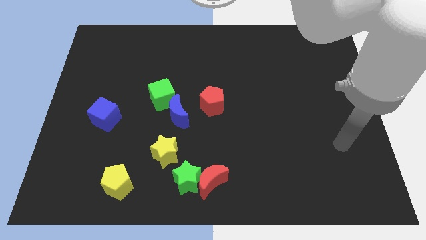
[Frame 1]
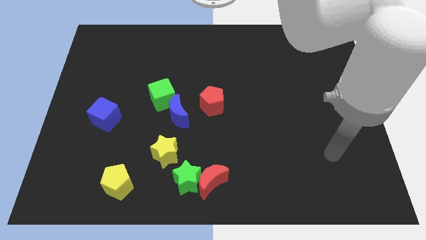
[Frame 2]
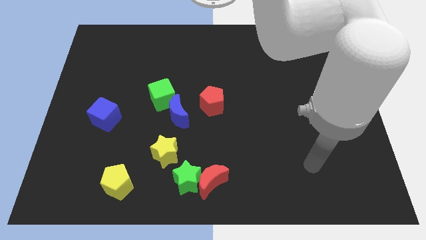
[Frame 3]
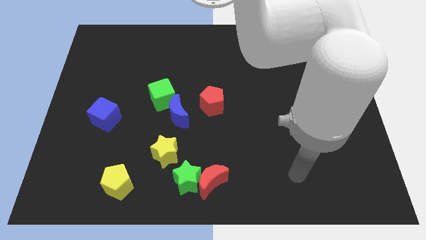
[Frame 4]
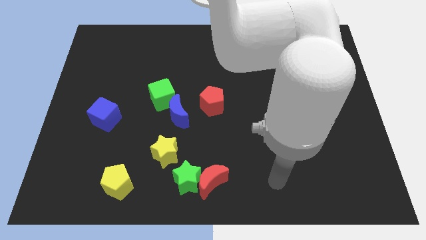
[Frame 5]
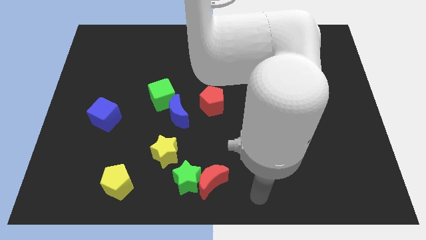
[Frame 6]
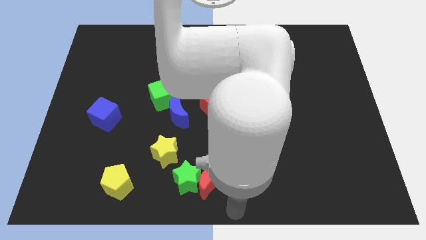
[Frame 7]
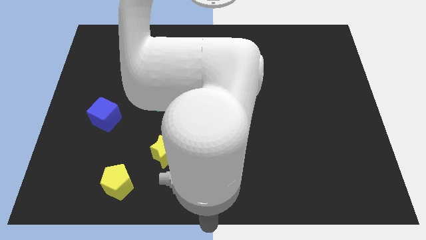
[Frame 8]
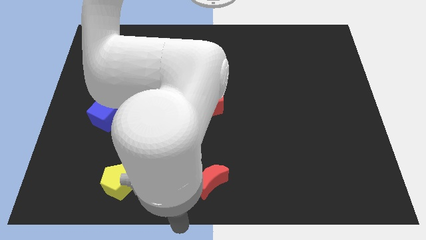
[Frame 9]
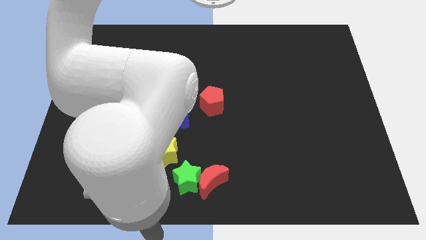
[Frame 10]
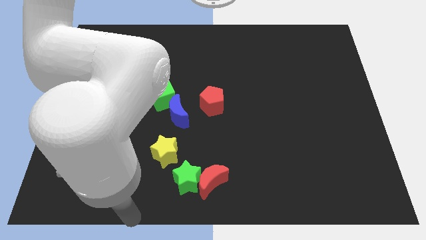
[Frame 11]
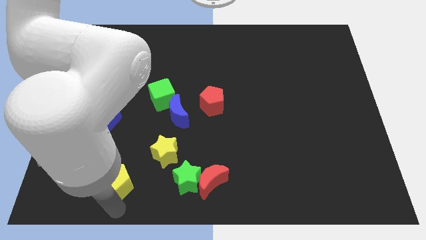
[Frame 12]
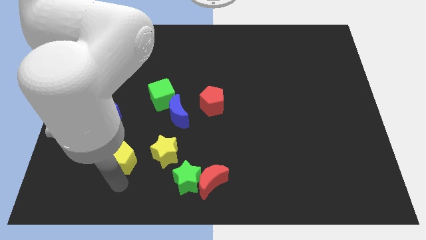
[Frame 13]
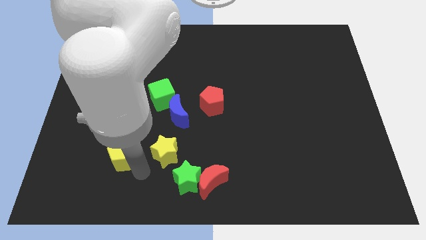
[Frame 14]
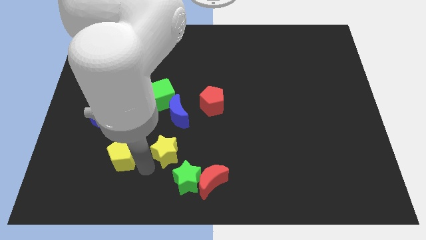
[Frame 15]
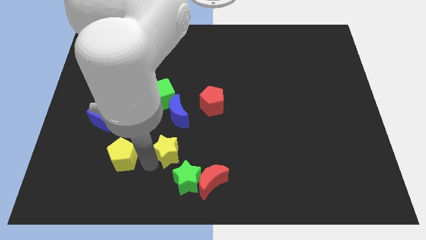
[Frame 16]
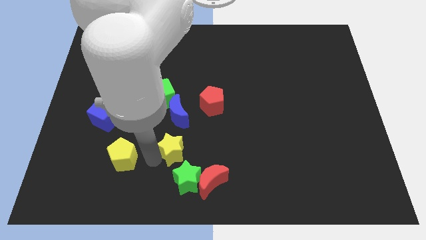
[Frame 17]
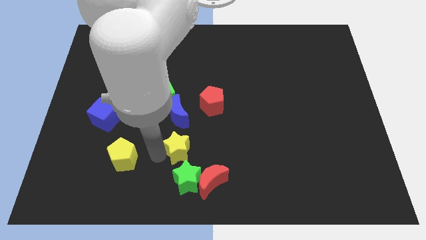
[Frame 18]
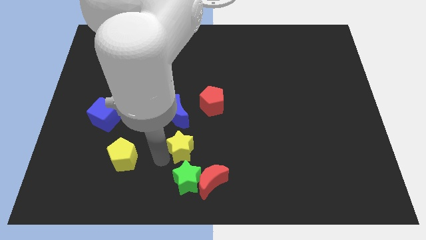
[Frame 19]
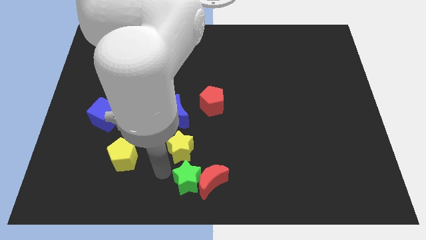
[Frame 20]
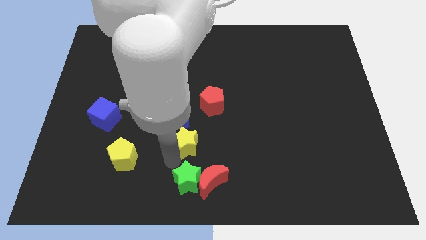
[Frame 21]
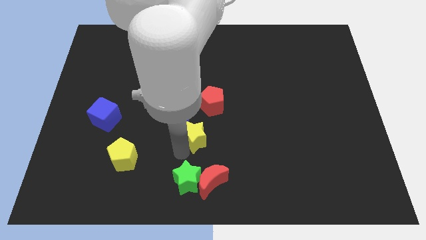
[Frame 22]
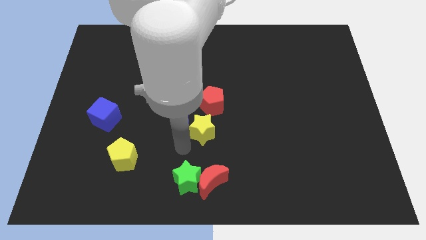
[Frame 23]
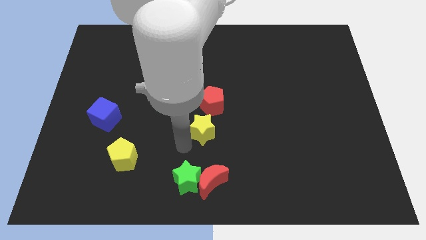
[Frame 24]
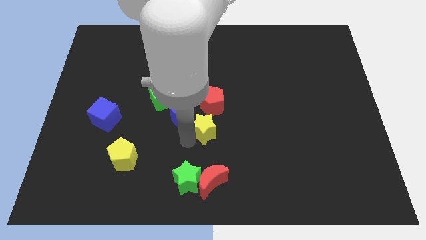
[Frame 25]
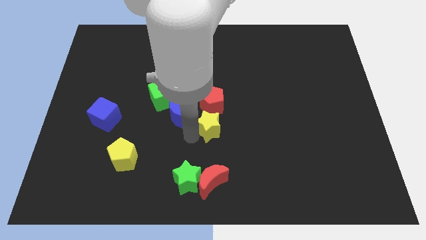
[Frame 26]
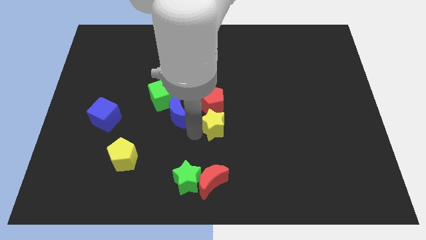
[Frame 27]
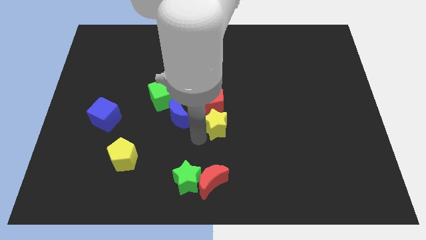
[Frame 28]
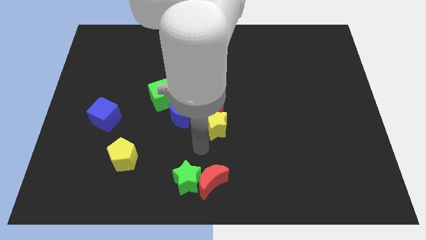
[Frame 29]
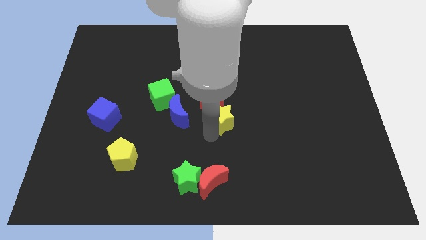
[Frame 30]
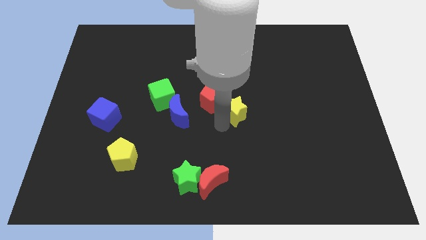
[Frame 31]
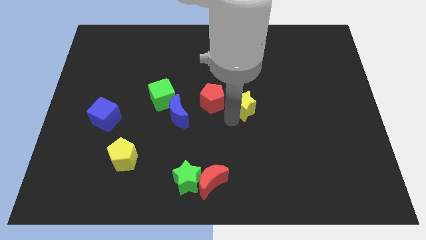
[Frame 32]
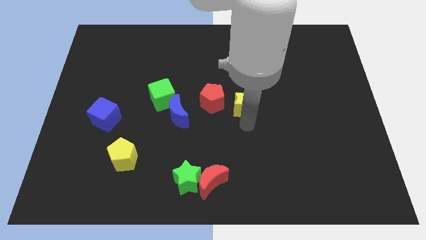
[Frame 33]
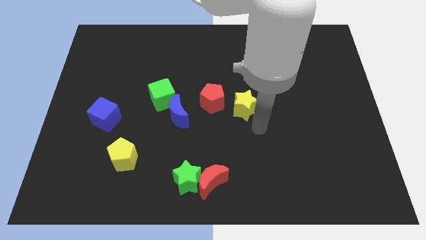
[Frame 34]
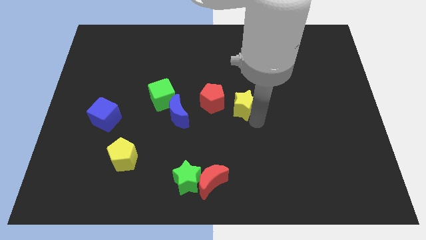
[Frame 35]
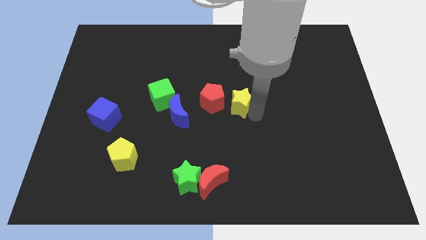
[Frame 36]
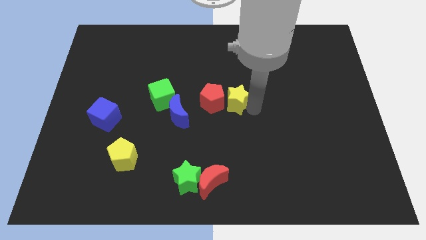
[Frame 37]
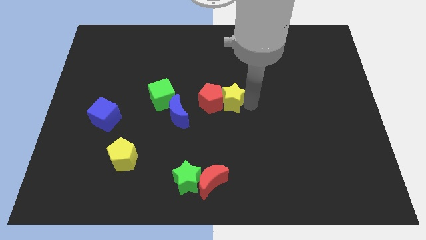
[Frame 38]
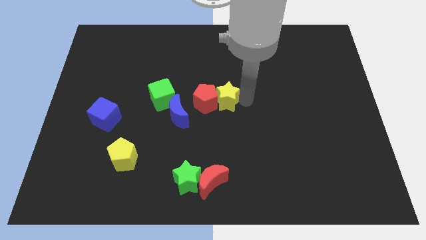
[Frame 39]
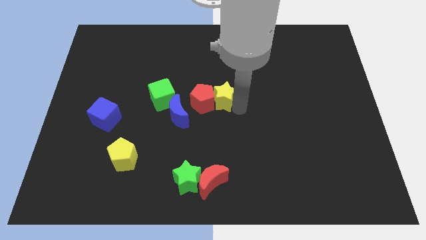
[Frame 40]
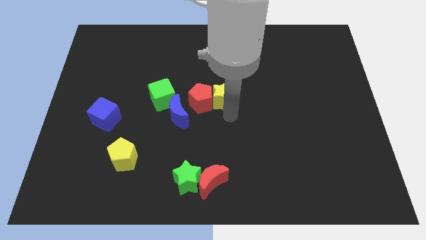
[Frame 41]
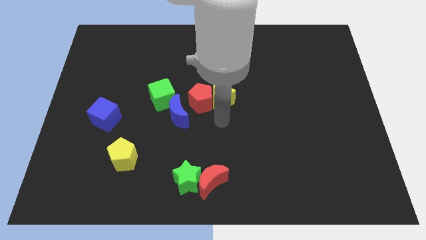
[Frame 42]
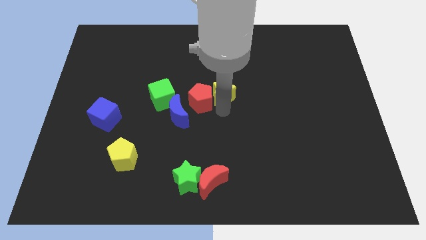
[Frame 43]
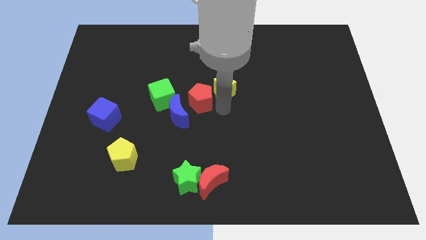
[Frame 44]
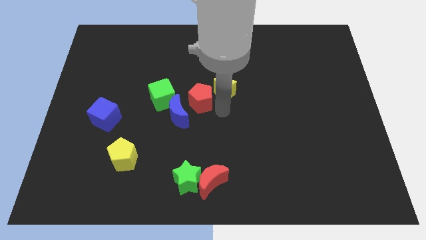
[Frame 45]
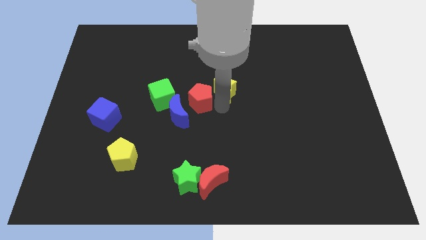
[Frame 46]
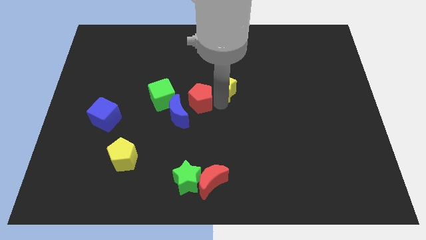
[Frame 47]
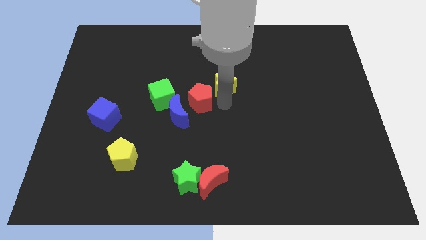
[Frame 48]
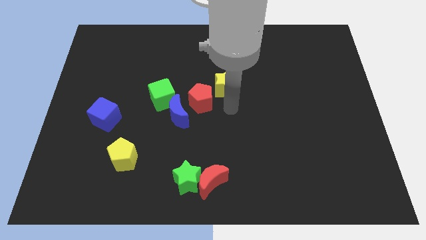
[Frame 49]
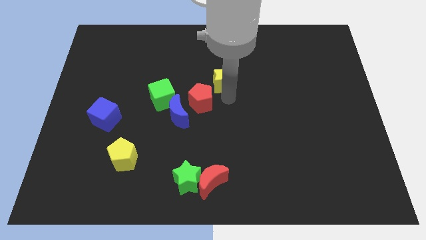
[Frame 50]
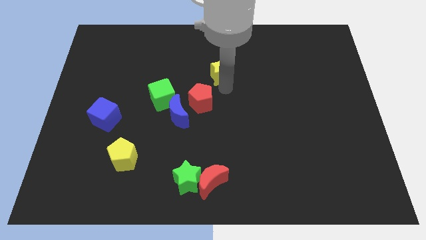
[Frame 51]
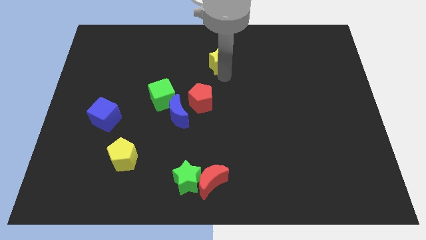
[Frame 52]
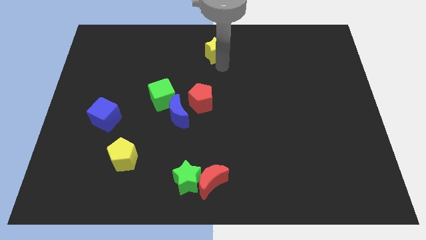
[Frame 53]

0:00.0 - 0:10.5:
put the yellow star to the top side

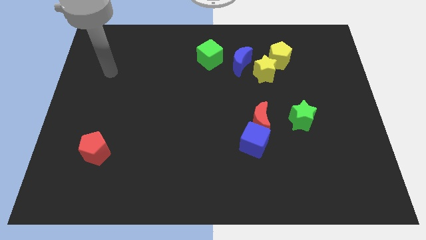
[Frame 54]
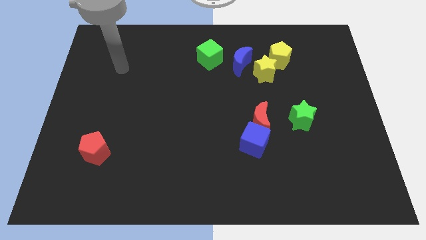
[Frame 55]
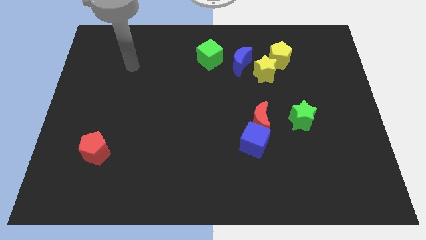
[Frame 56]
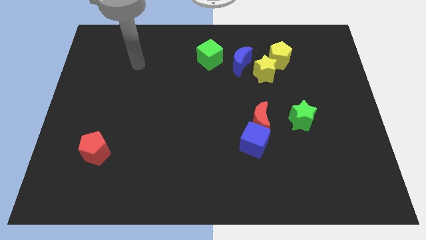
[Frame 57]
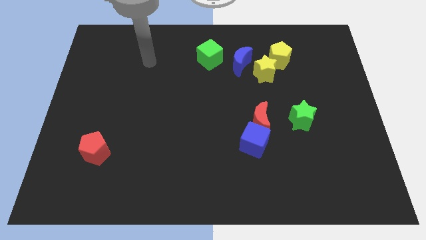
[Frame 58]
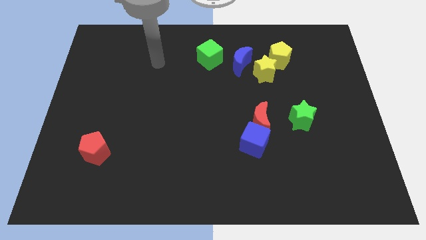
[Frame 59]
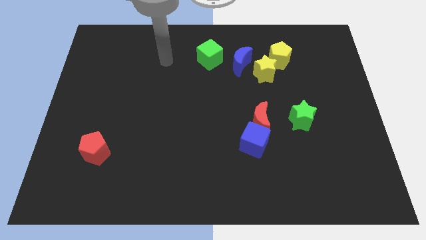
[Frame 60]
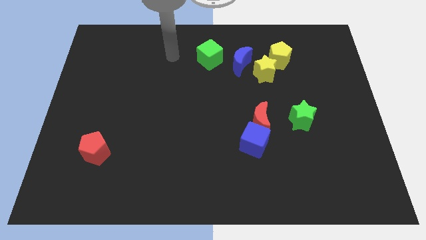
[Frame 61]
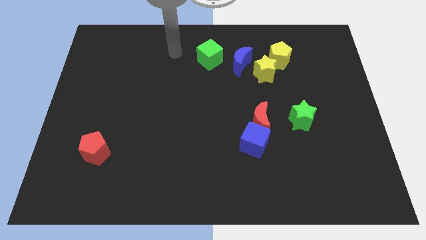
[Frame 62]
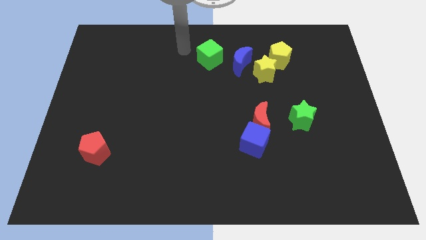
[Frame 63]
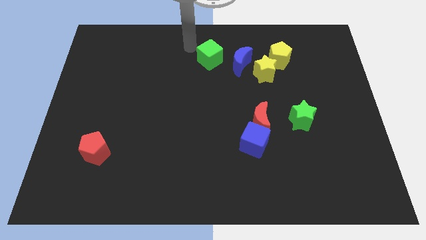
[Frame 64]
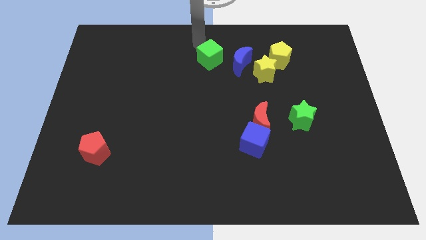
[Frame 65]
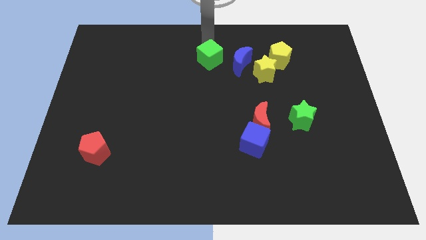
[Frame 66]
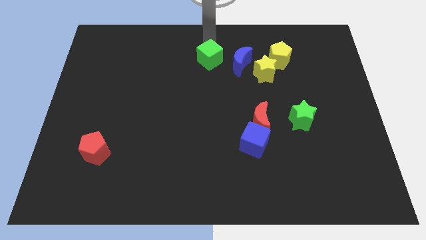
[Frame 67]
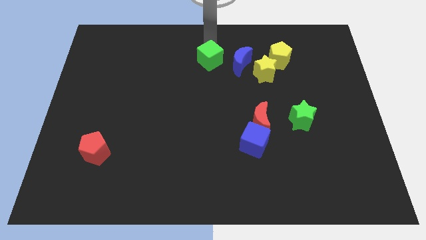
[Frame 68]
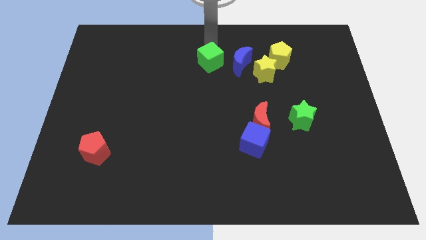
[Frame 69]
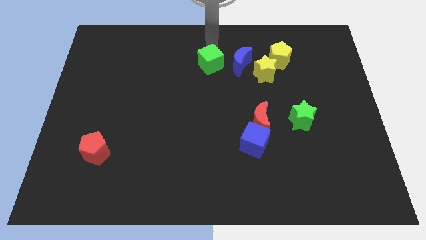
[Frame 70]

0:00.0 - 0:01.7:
slide the green cube to the middle of the board

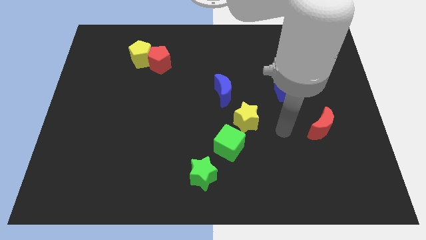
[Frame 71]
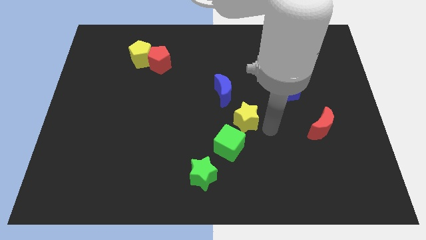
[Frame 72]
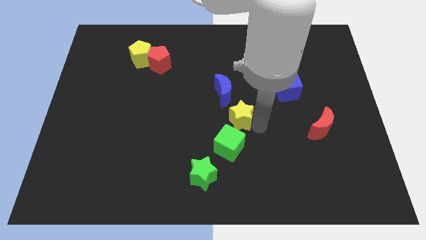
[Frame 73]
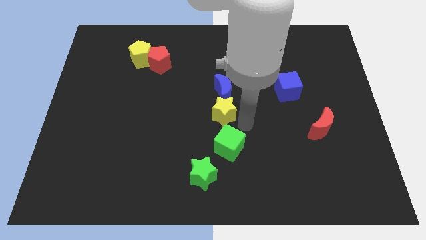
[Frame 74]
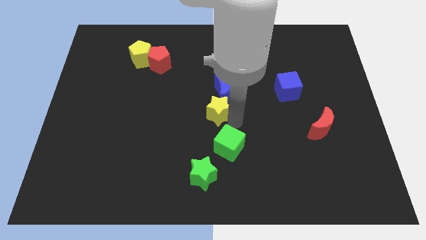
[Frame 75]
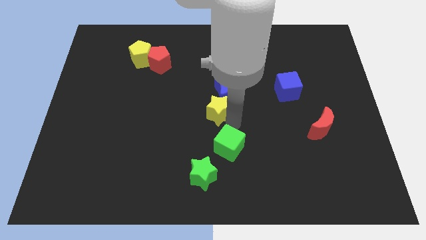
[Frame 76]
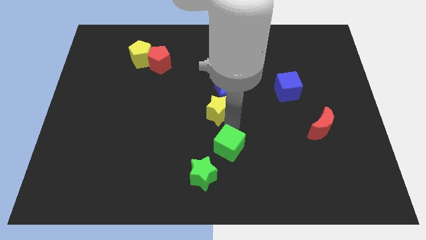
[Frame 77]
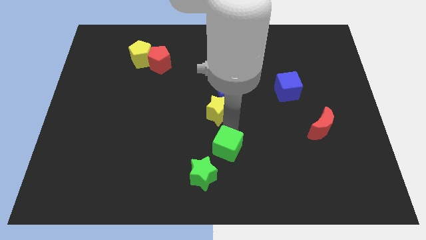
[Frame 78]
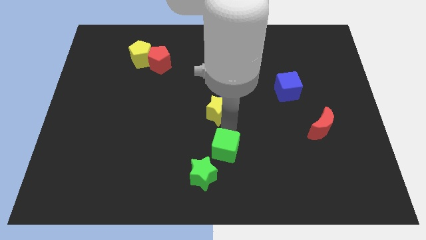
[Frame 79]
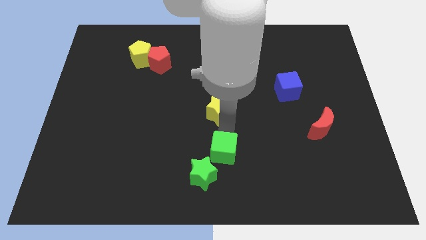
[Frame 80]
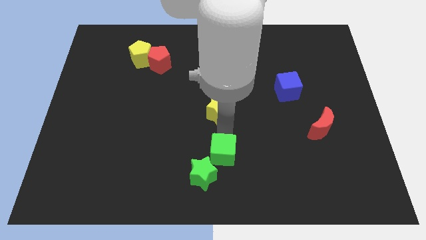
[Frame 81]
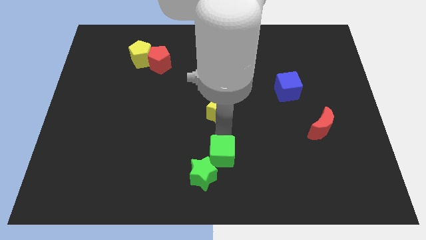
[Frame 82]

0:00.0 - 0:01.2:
slide the green cube to the bottom
